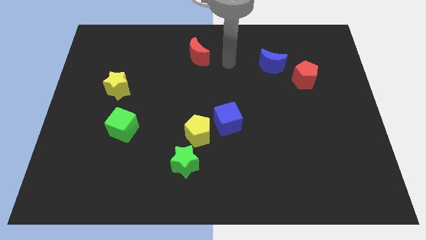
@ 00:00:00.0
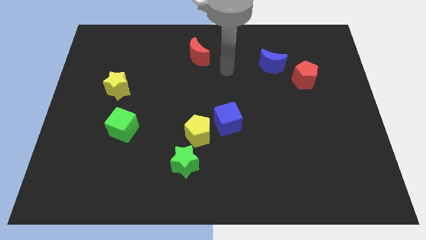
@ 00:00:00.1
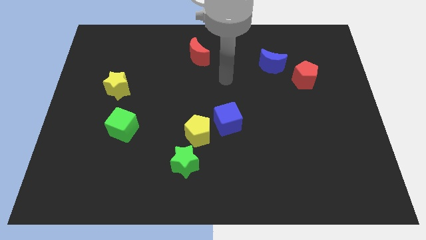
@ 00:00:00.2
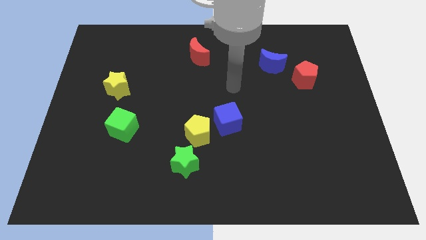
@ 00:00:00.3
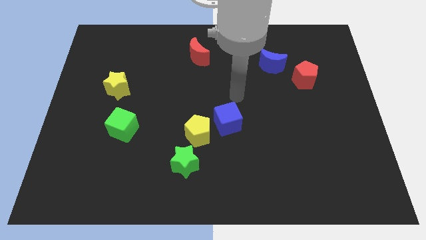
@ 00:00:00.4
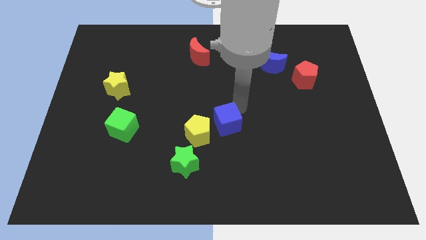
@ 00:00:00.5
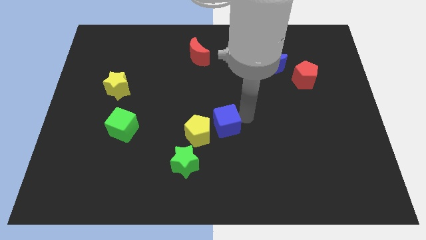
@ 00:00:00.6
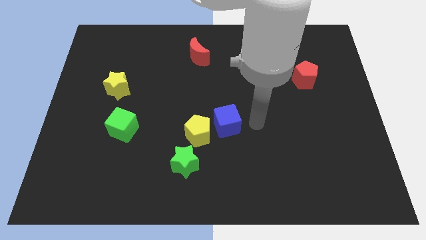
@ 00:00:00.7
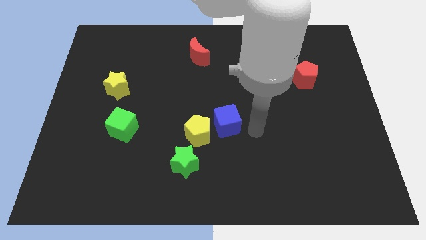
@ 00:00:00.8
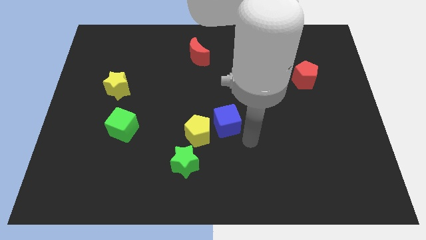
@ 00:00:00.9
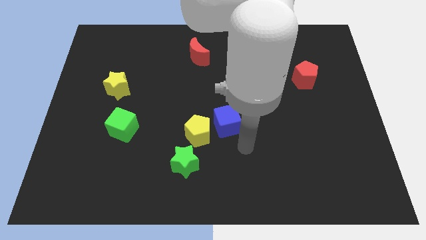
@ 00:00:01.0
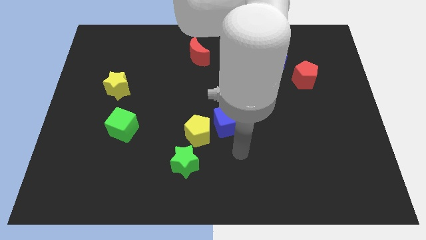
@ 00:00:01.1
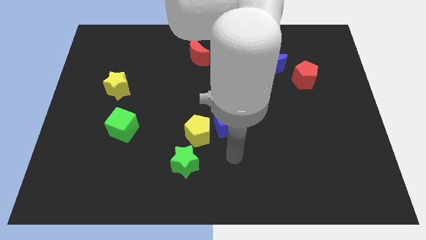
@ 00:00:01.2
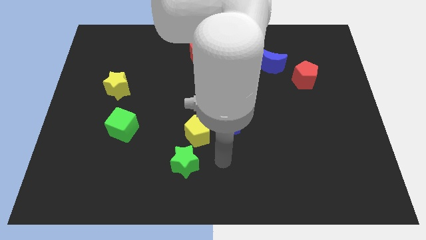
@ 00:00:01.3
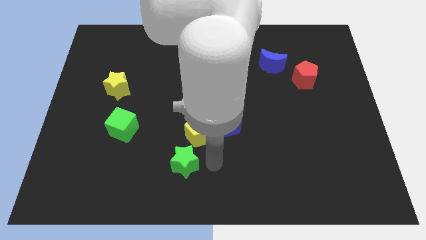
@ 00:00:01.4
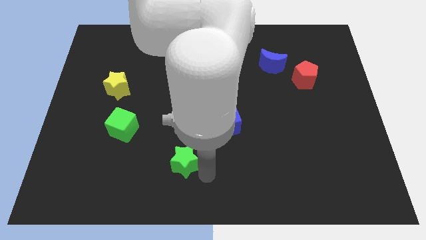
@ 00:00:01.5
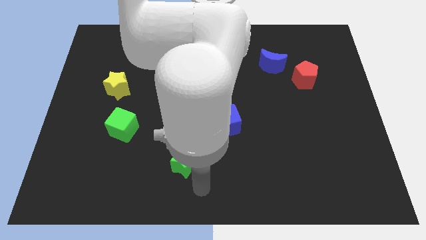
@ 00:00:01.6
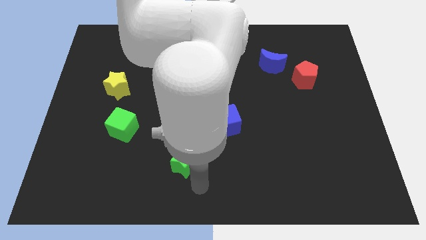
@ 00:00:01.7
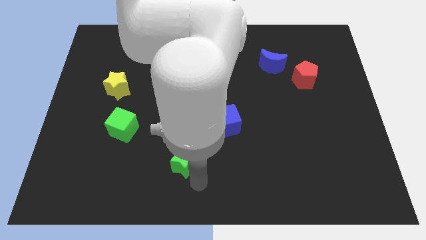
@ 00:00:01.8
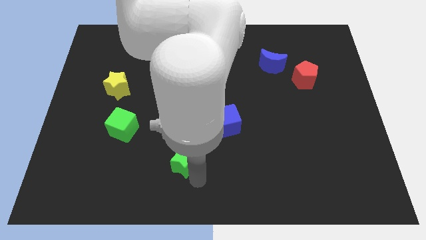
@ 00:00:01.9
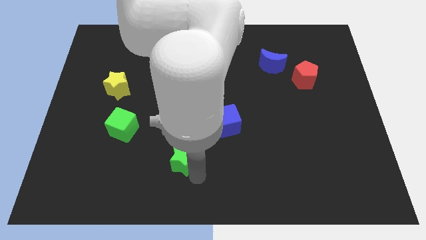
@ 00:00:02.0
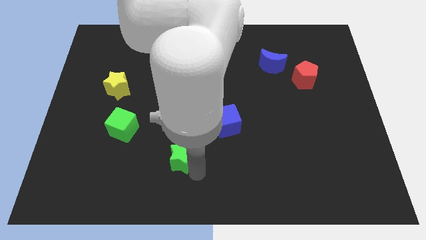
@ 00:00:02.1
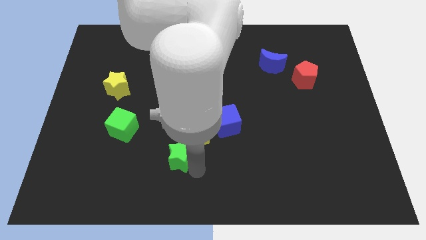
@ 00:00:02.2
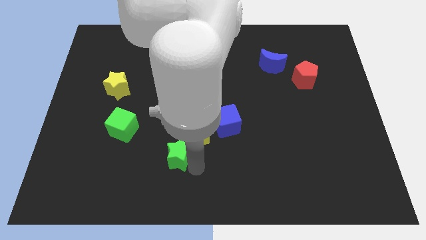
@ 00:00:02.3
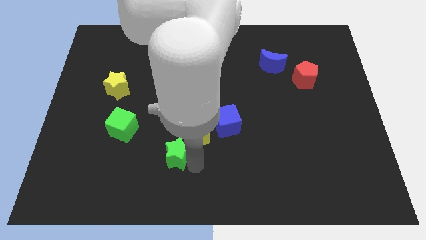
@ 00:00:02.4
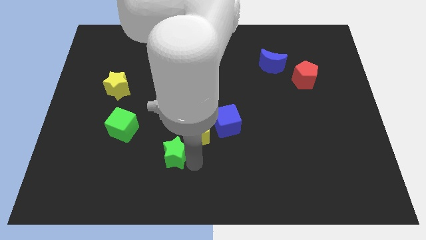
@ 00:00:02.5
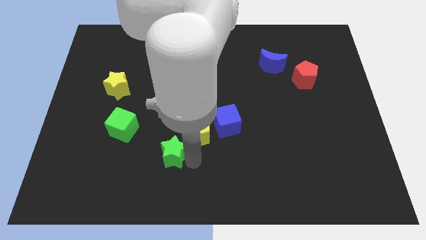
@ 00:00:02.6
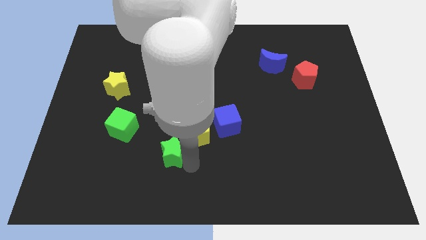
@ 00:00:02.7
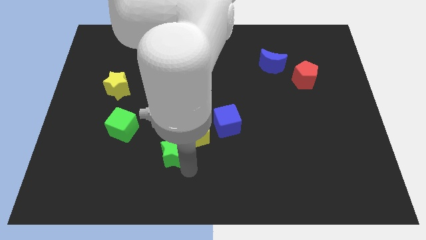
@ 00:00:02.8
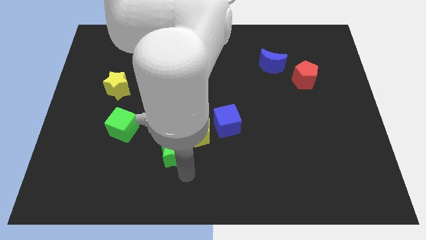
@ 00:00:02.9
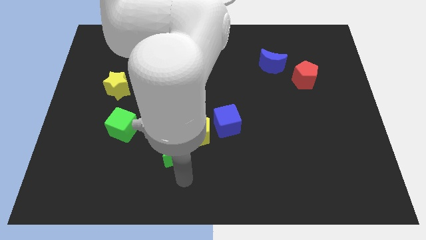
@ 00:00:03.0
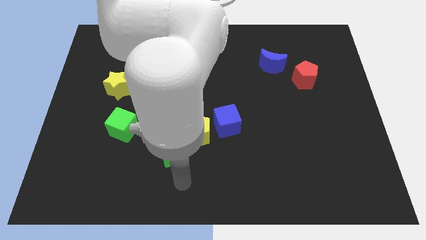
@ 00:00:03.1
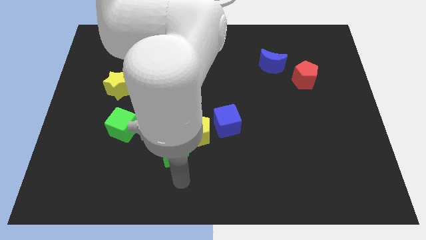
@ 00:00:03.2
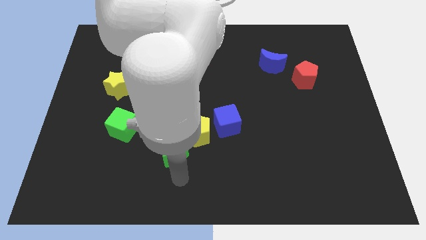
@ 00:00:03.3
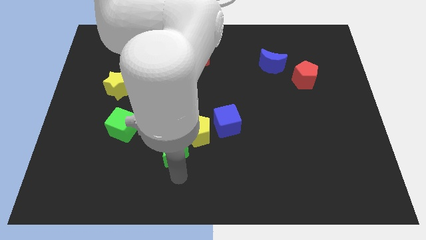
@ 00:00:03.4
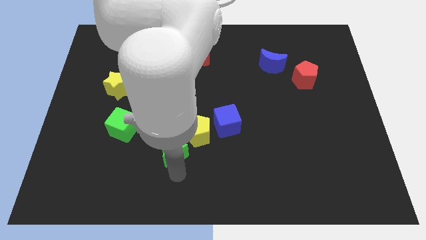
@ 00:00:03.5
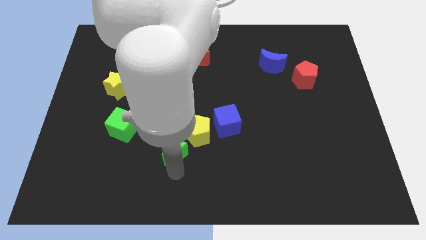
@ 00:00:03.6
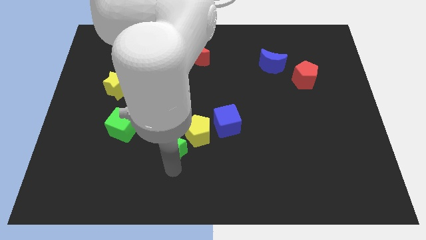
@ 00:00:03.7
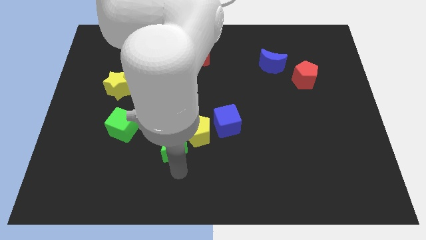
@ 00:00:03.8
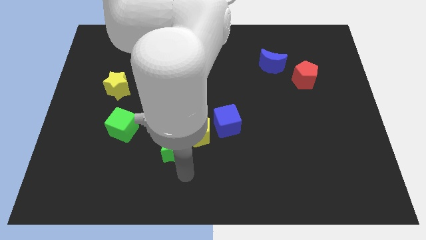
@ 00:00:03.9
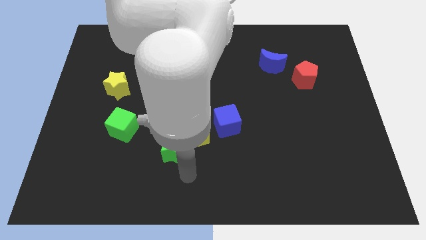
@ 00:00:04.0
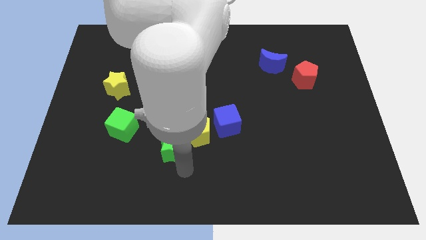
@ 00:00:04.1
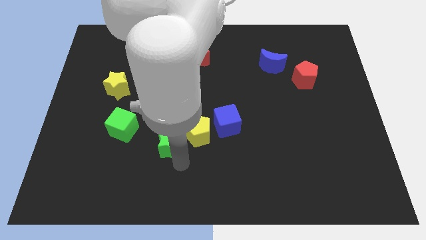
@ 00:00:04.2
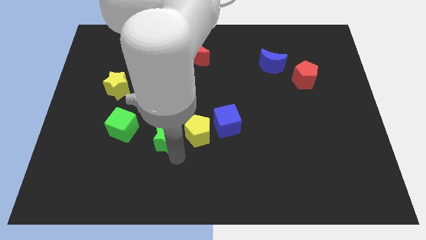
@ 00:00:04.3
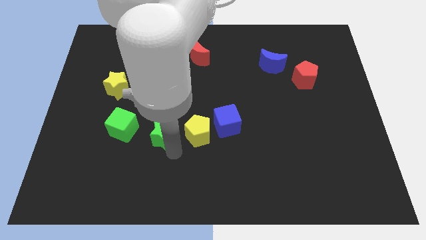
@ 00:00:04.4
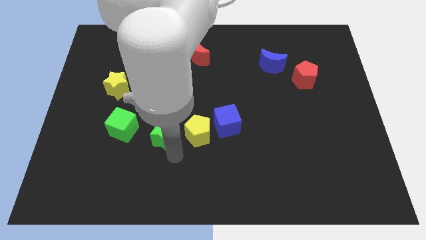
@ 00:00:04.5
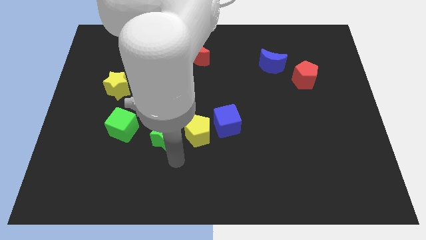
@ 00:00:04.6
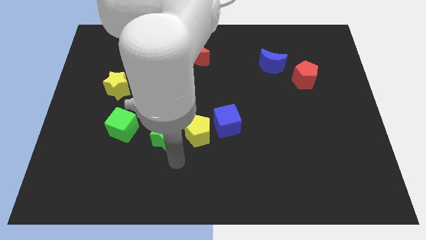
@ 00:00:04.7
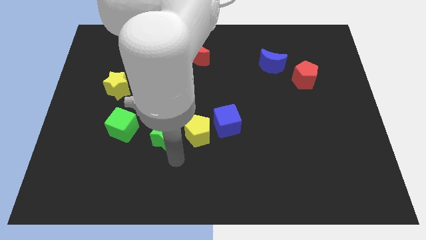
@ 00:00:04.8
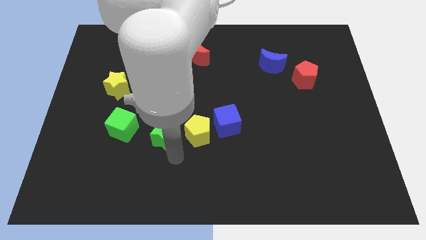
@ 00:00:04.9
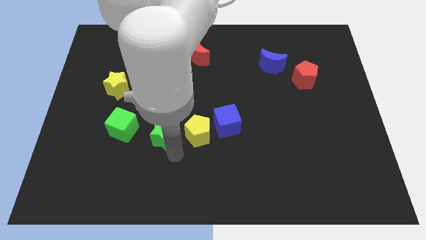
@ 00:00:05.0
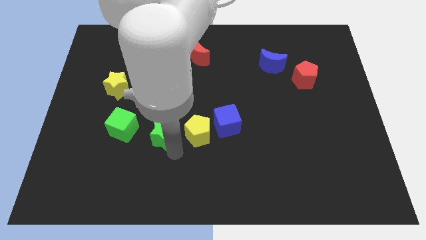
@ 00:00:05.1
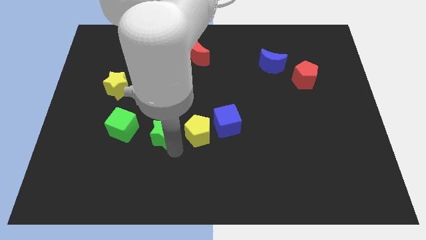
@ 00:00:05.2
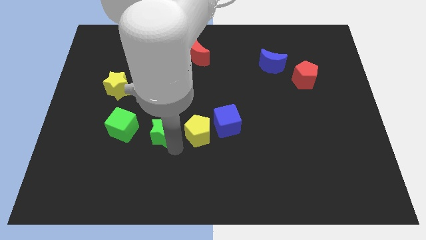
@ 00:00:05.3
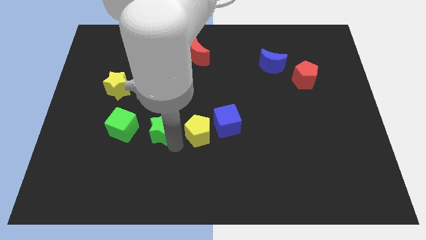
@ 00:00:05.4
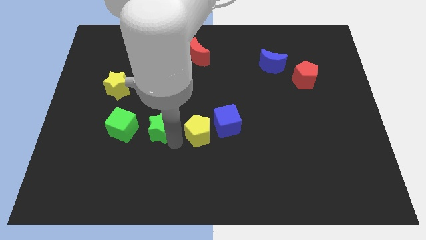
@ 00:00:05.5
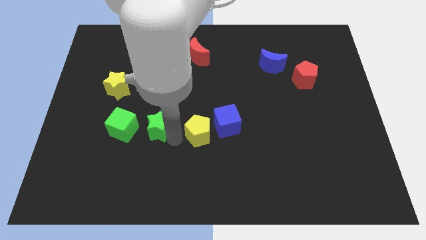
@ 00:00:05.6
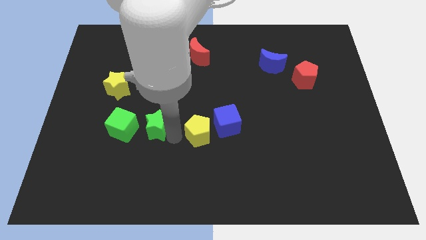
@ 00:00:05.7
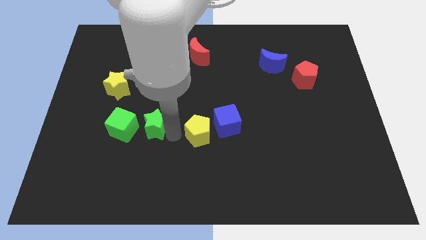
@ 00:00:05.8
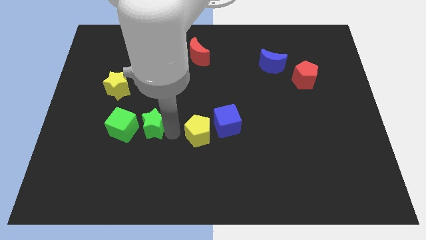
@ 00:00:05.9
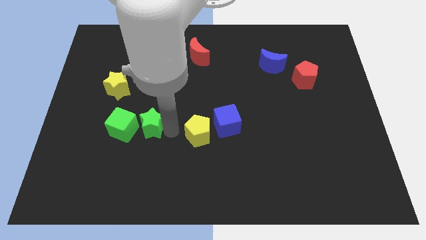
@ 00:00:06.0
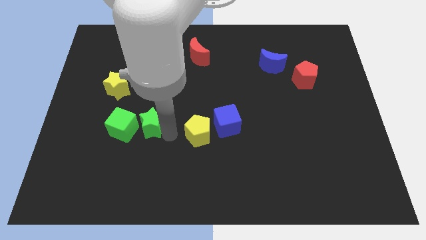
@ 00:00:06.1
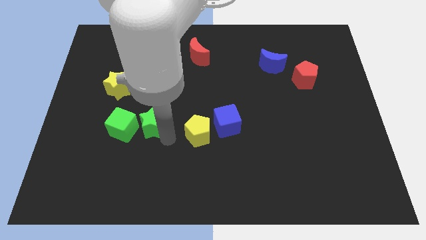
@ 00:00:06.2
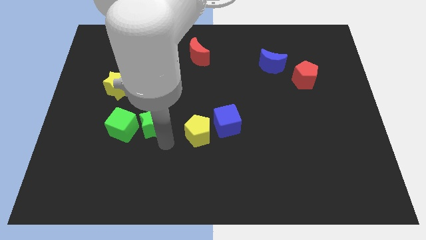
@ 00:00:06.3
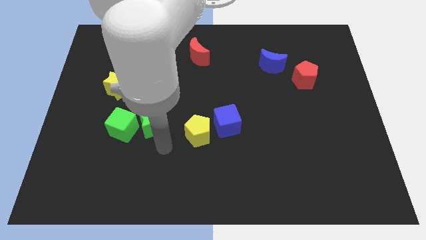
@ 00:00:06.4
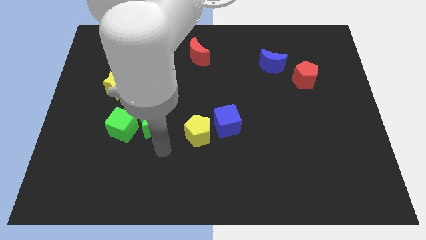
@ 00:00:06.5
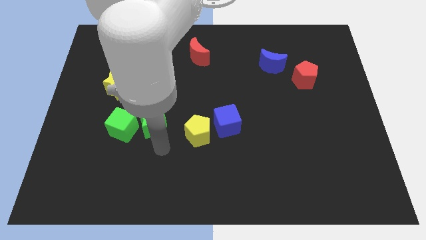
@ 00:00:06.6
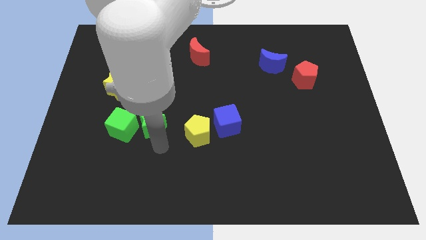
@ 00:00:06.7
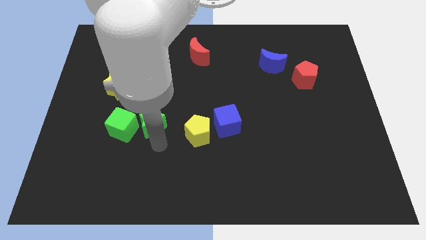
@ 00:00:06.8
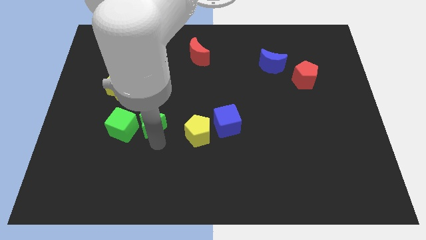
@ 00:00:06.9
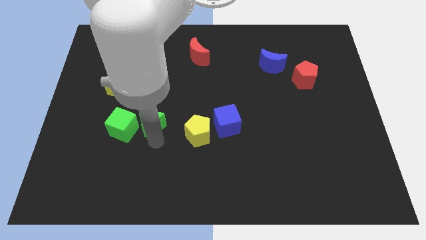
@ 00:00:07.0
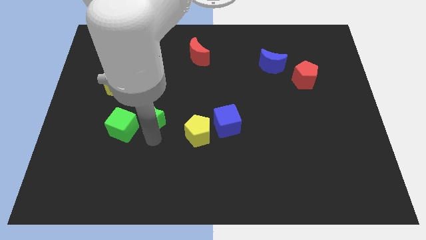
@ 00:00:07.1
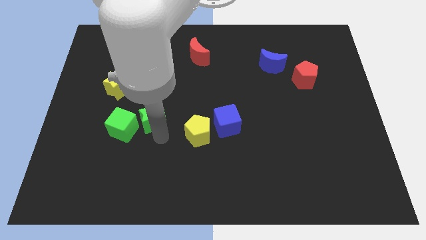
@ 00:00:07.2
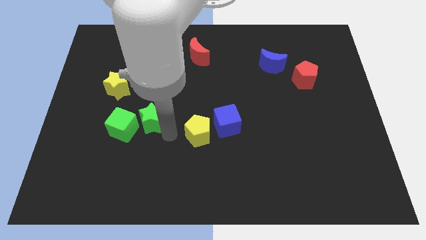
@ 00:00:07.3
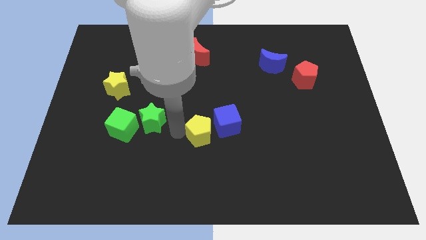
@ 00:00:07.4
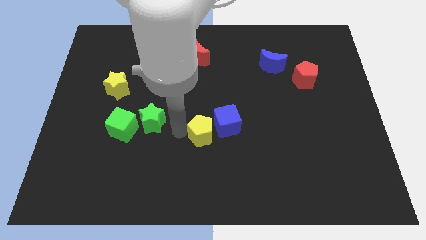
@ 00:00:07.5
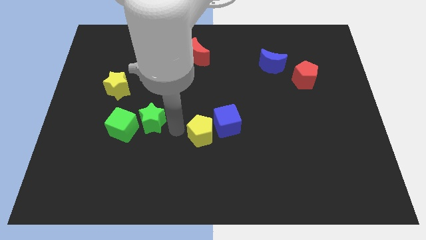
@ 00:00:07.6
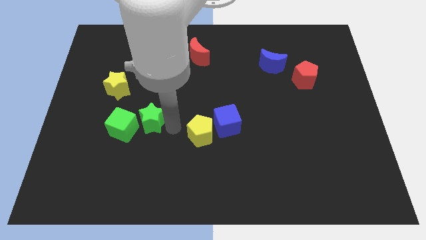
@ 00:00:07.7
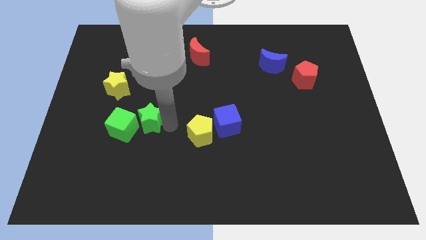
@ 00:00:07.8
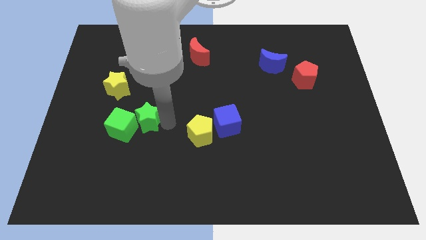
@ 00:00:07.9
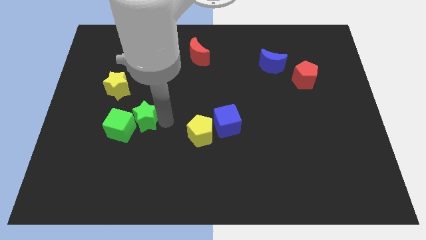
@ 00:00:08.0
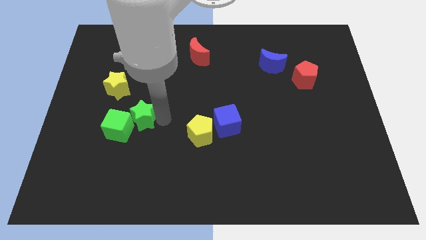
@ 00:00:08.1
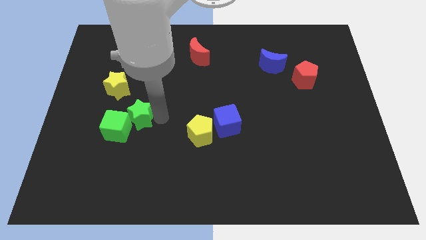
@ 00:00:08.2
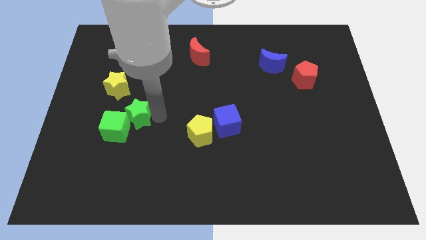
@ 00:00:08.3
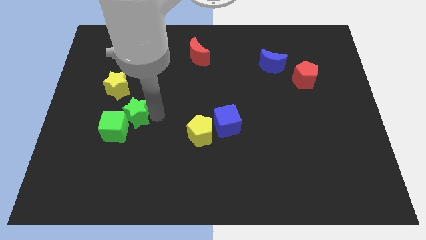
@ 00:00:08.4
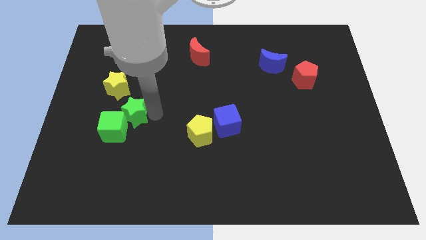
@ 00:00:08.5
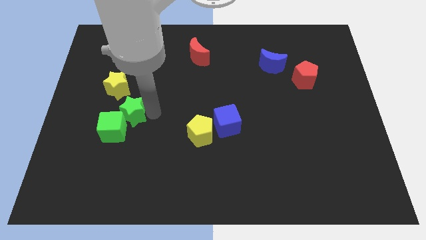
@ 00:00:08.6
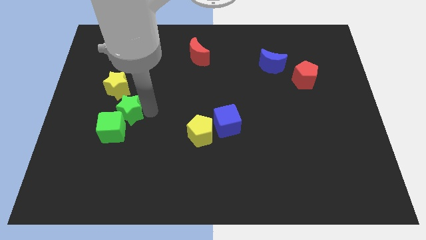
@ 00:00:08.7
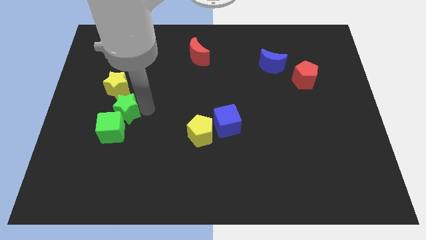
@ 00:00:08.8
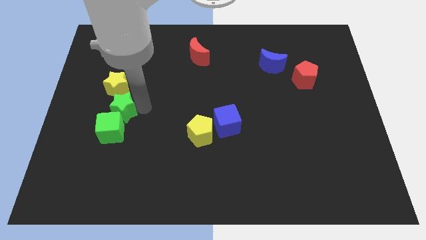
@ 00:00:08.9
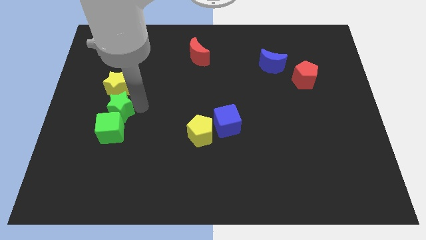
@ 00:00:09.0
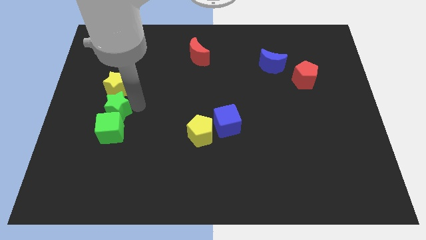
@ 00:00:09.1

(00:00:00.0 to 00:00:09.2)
push the green star to the top left of the green cube
